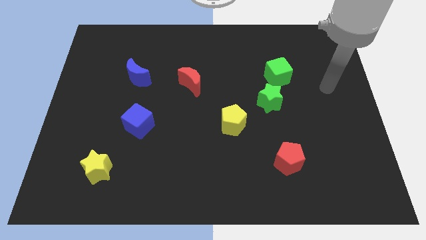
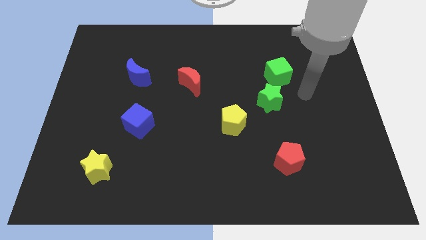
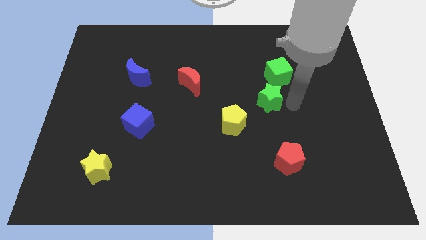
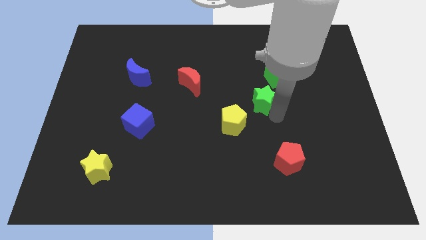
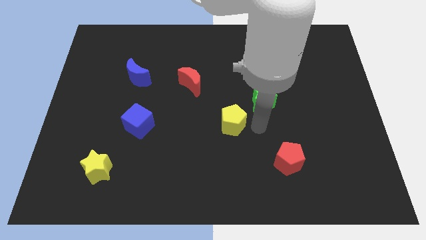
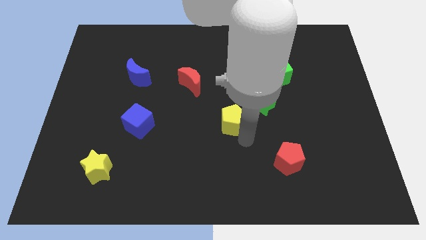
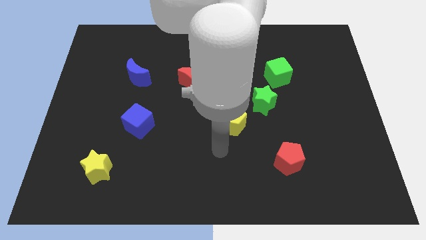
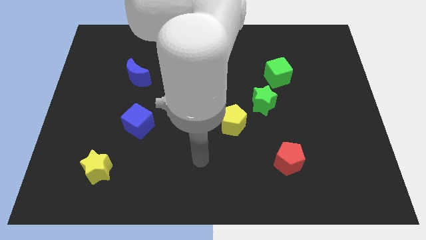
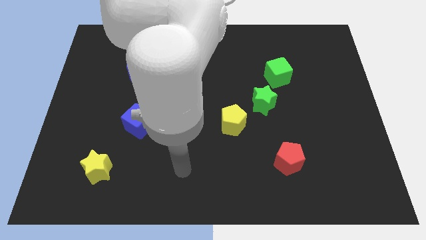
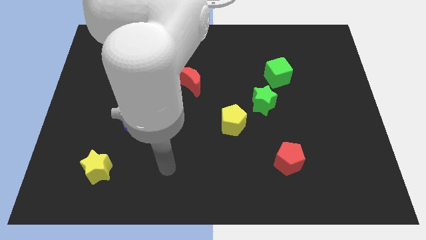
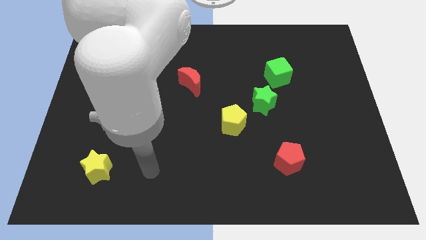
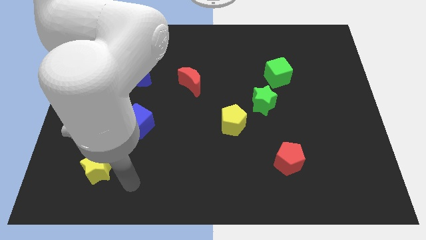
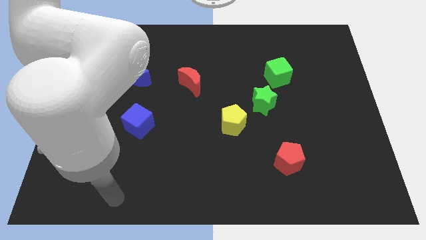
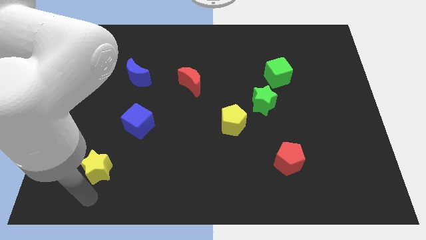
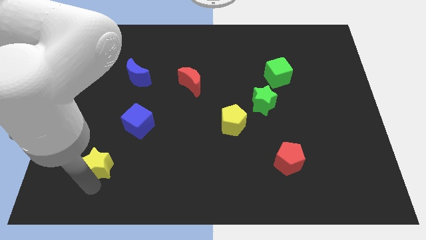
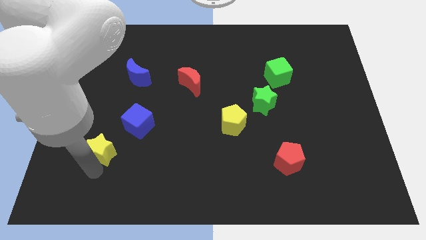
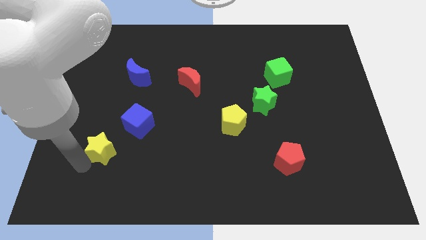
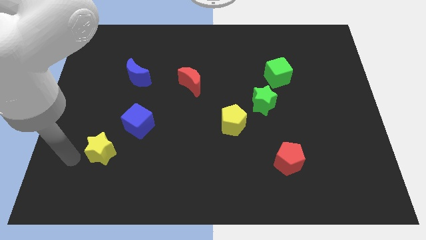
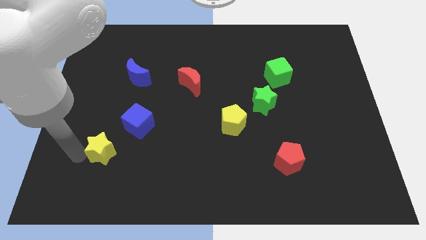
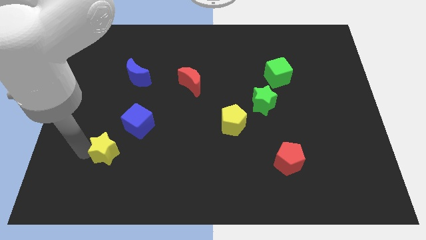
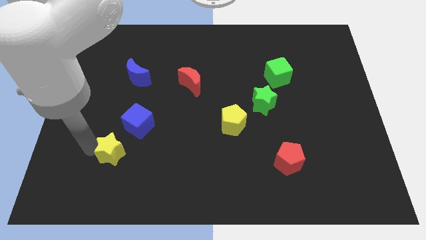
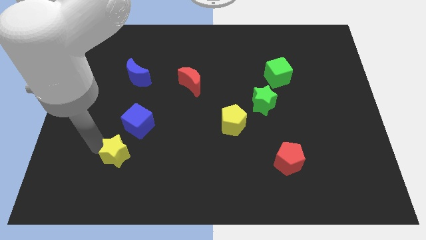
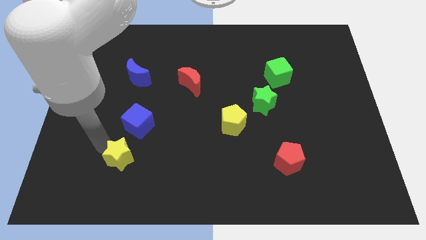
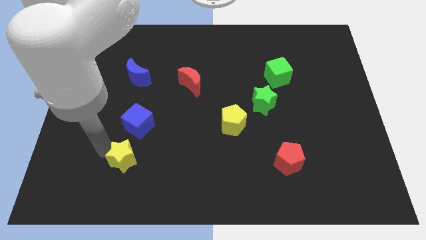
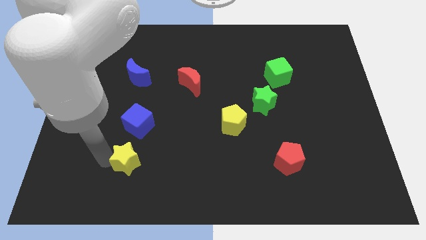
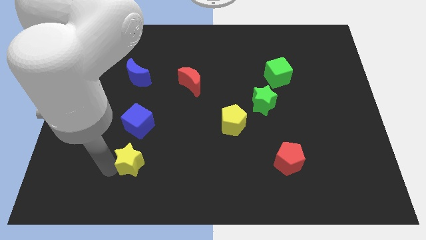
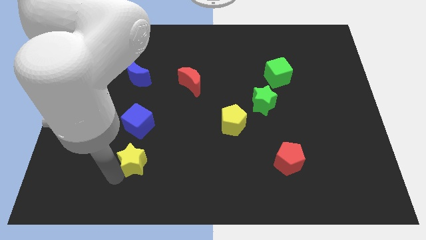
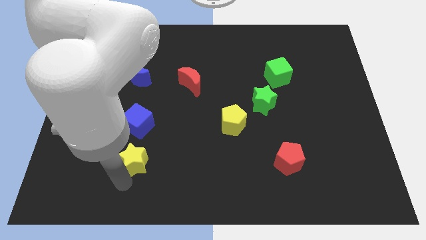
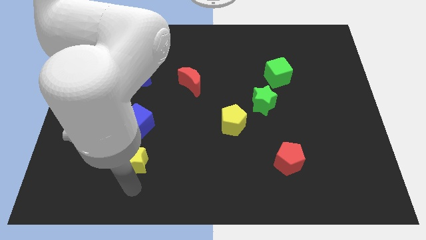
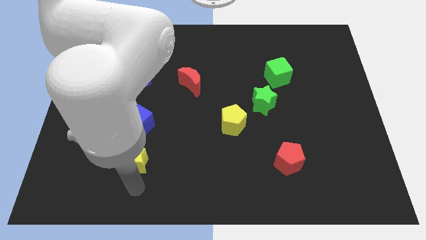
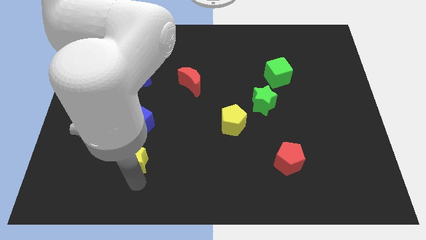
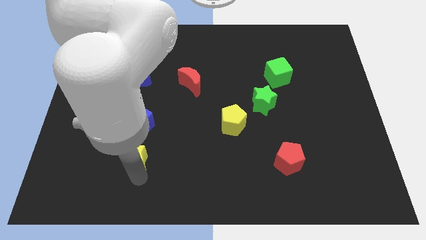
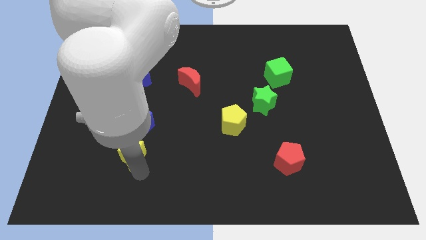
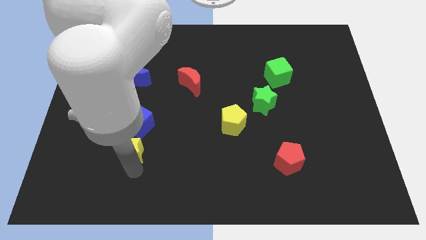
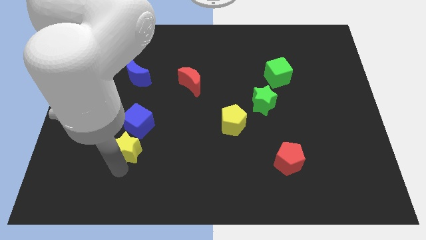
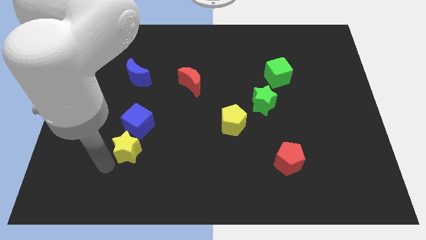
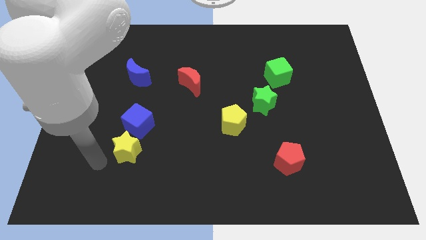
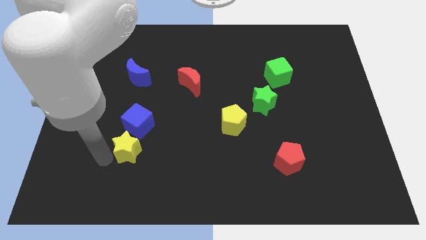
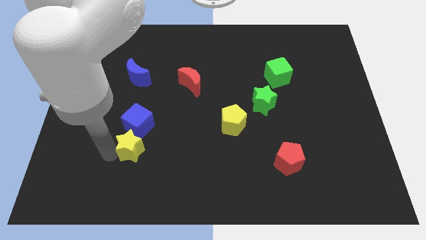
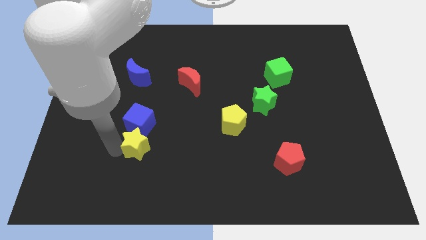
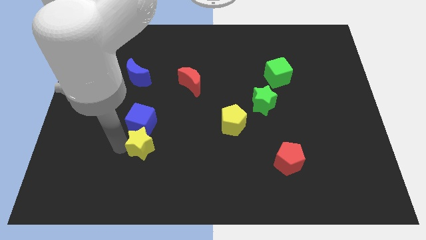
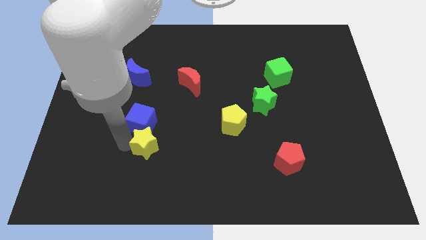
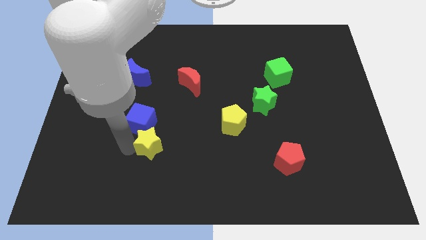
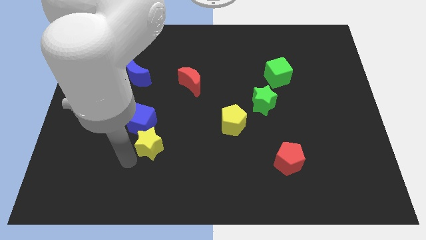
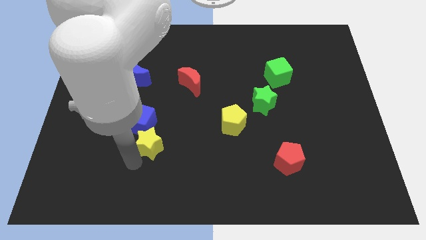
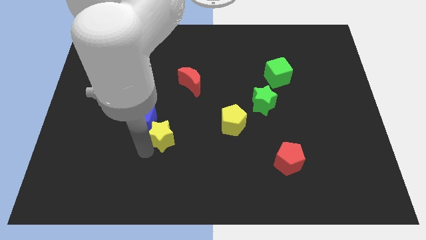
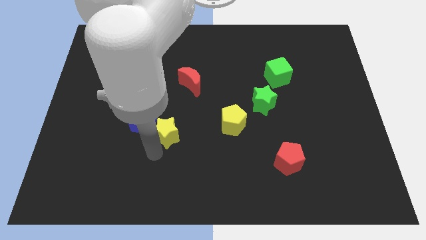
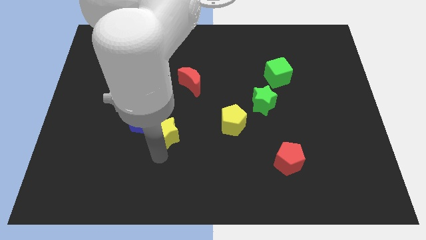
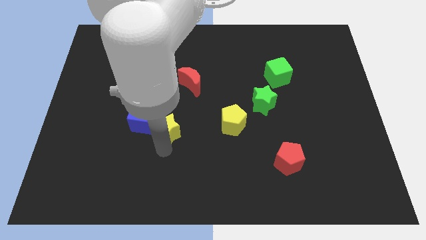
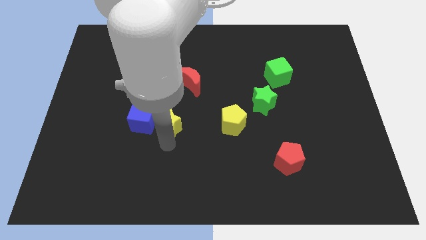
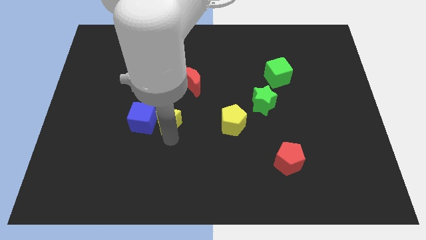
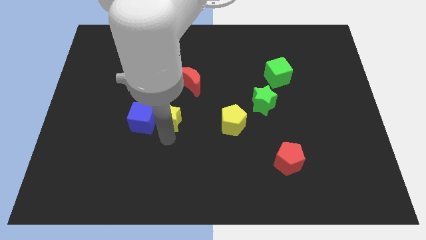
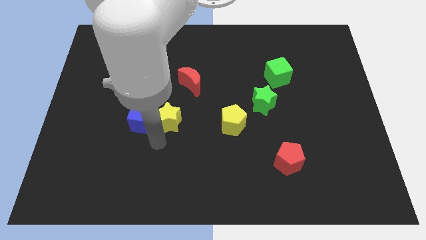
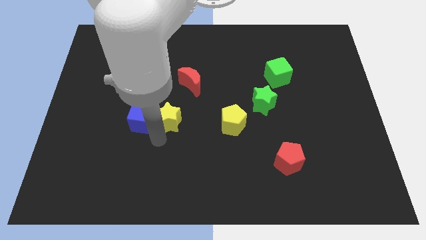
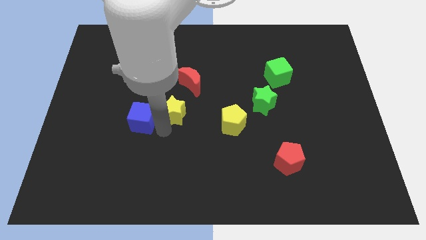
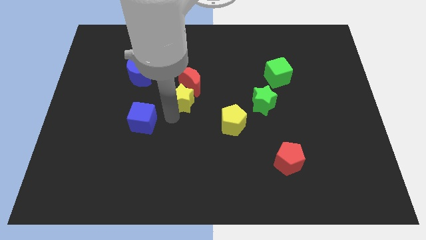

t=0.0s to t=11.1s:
slide the yellow star towards the red moon

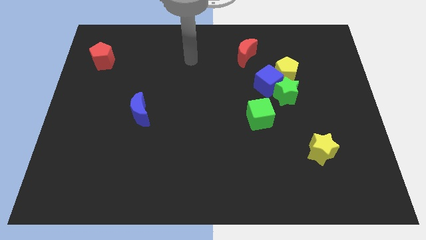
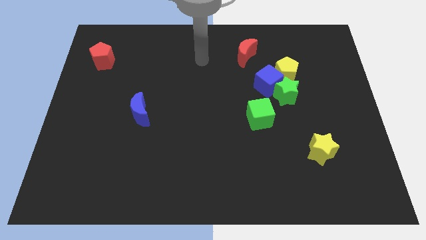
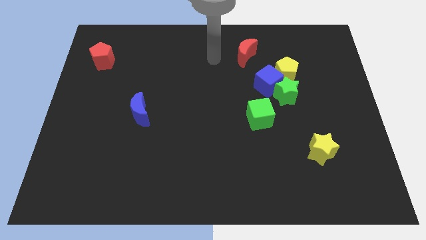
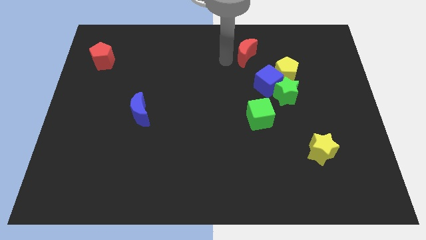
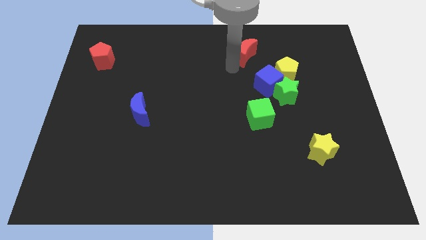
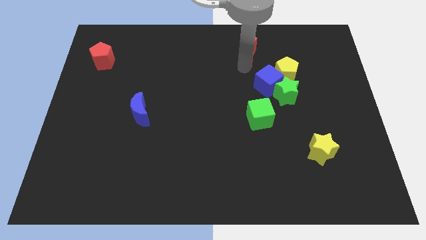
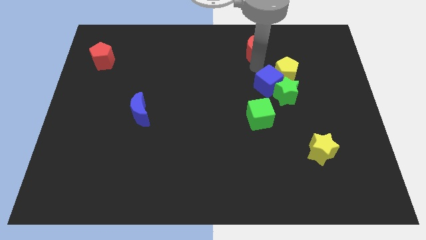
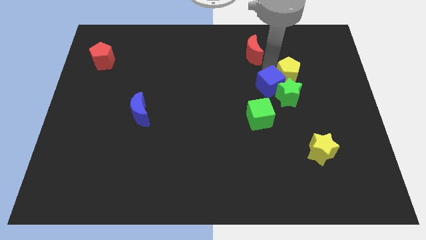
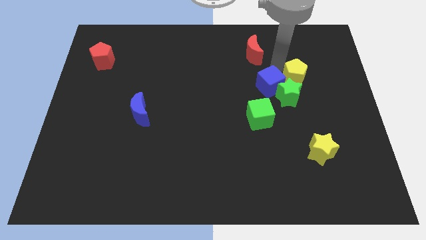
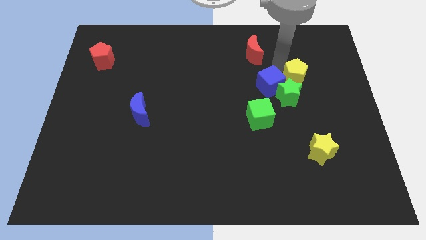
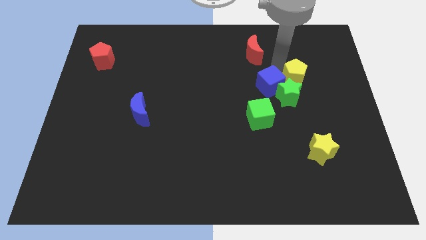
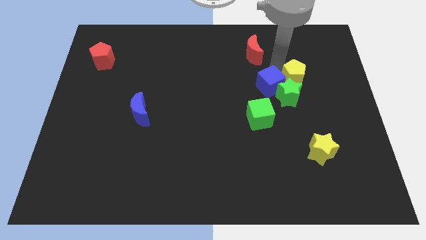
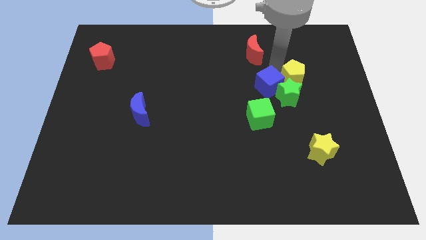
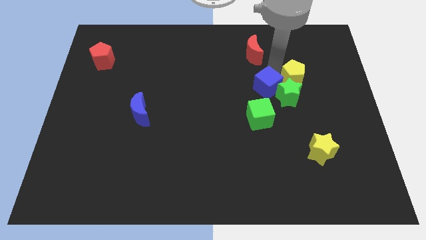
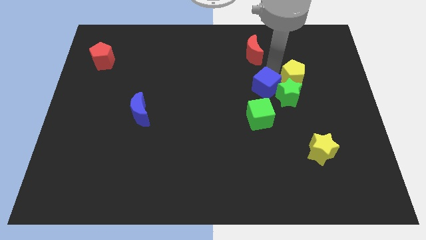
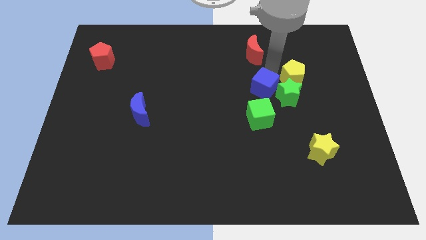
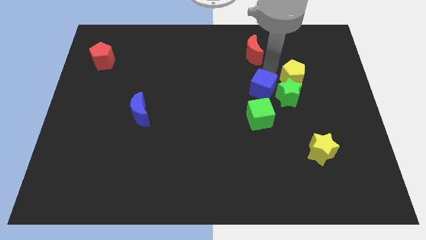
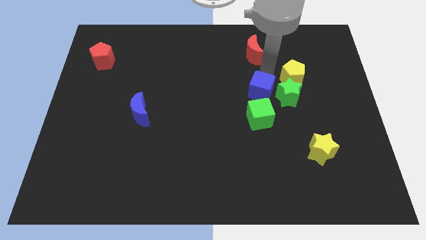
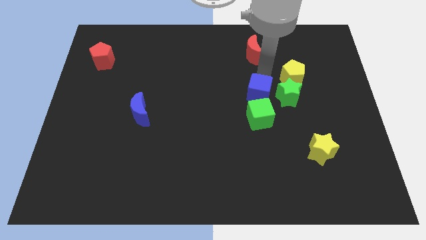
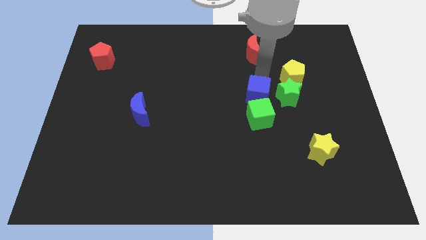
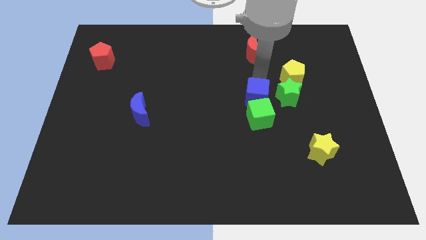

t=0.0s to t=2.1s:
put the blue cube close to the green cube
